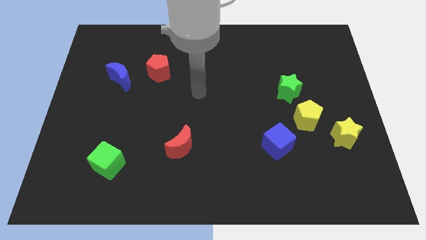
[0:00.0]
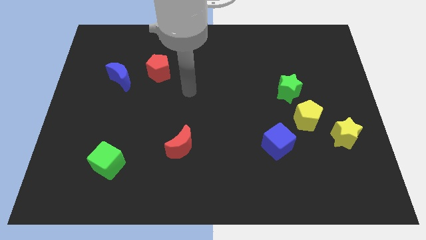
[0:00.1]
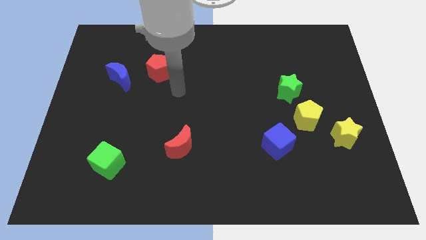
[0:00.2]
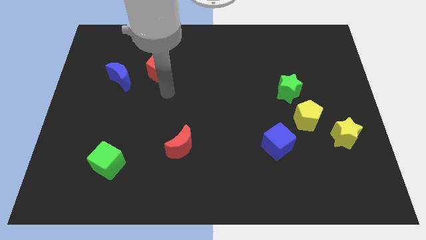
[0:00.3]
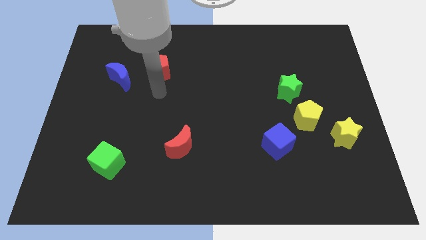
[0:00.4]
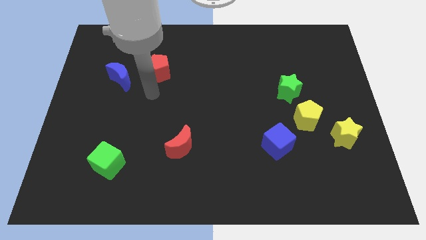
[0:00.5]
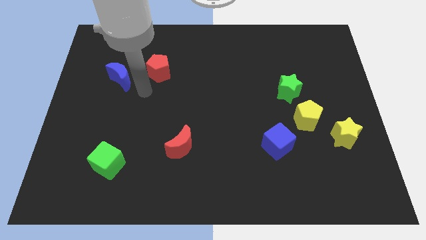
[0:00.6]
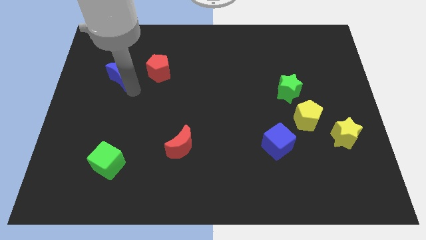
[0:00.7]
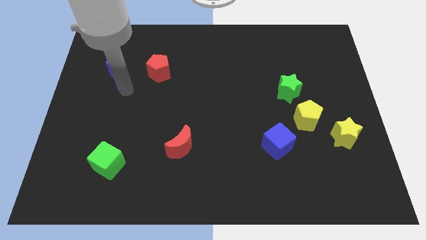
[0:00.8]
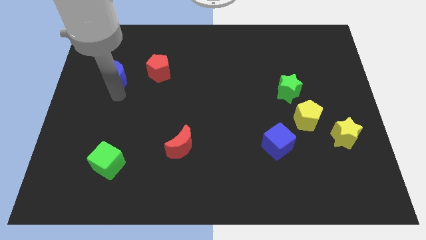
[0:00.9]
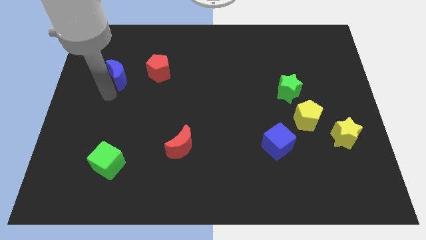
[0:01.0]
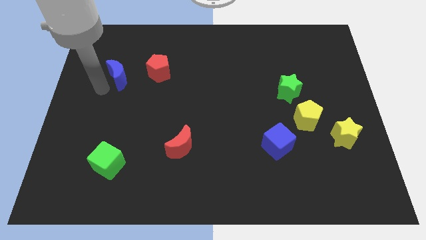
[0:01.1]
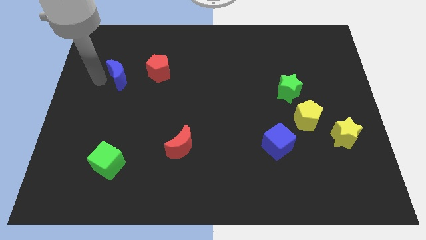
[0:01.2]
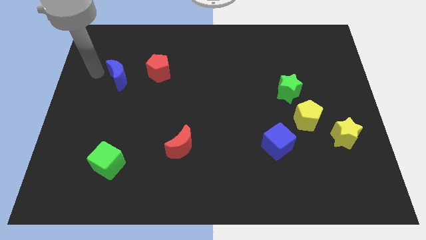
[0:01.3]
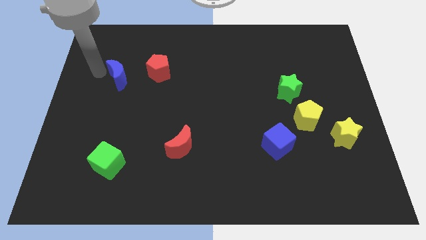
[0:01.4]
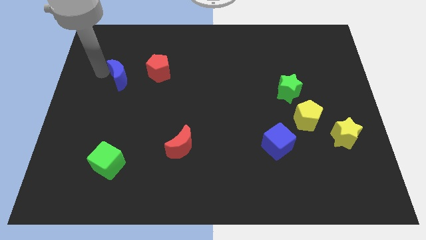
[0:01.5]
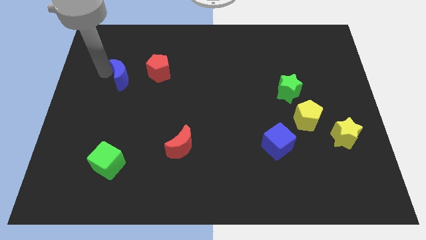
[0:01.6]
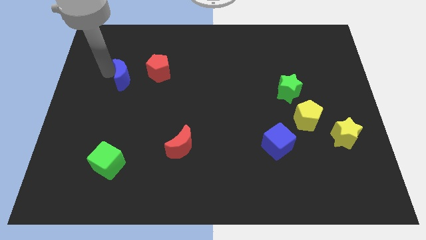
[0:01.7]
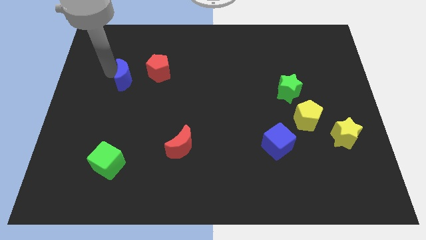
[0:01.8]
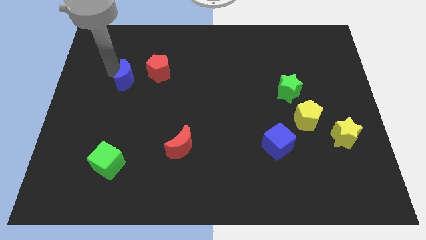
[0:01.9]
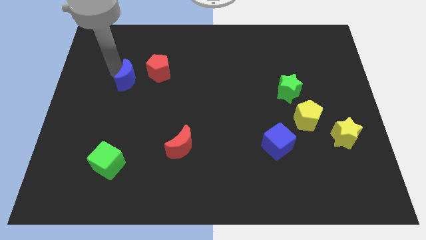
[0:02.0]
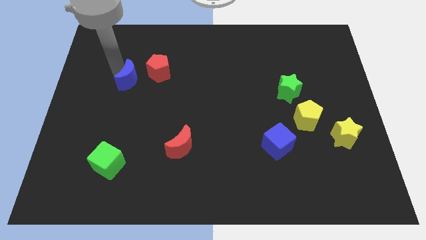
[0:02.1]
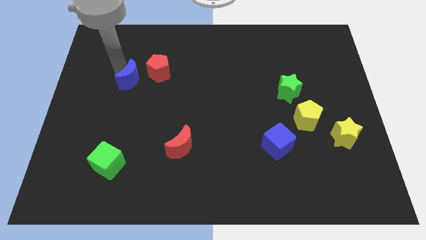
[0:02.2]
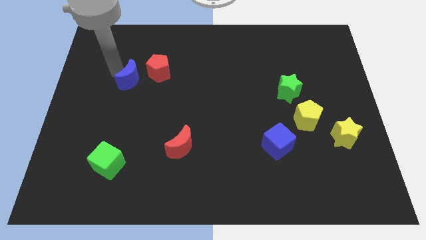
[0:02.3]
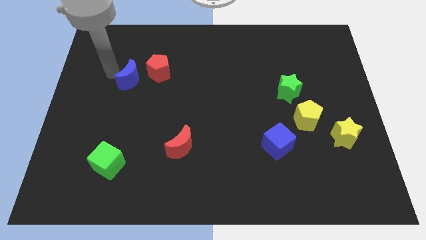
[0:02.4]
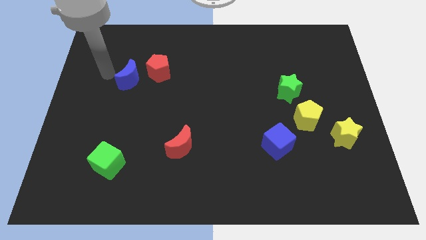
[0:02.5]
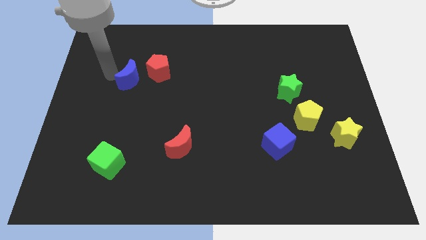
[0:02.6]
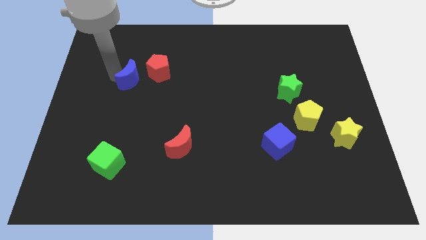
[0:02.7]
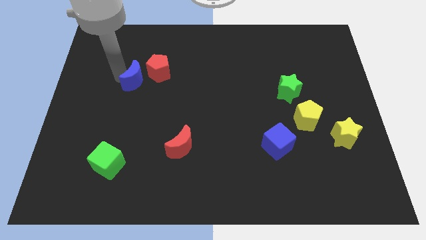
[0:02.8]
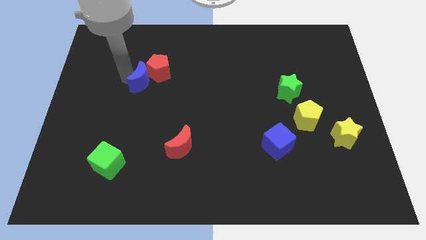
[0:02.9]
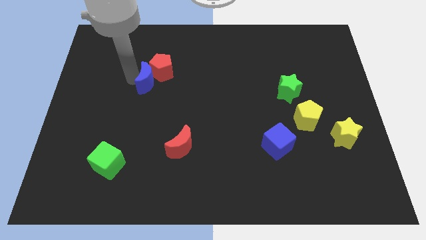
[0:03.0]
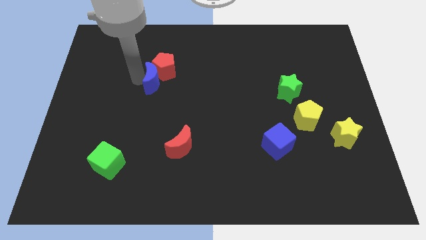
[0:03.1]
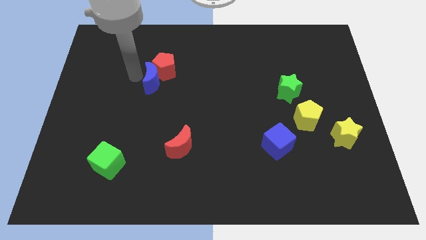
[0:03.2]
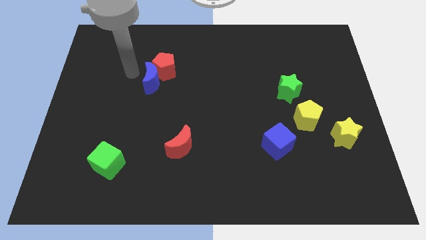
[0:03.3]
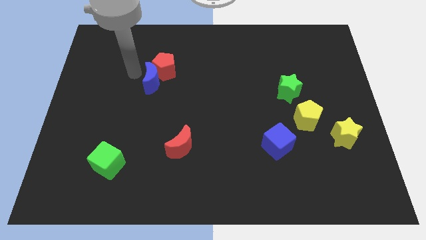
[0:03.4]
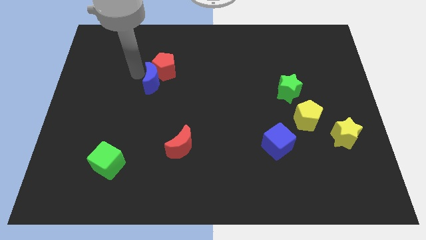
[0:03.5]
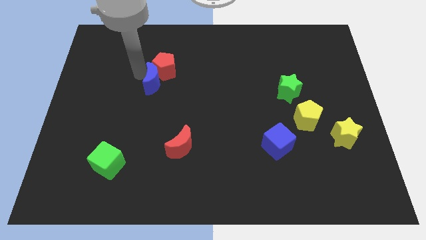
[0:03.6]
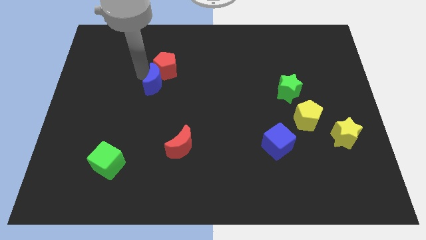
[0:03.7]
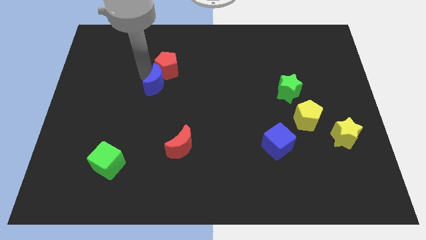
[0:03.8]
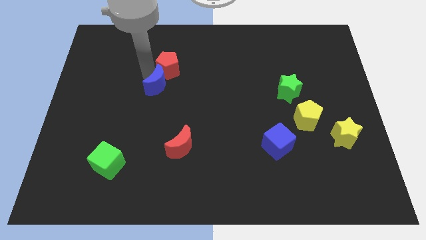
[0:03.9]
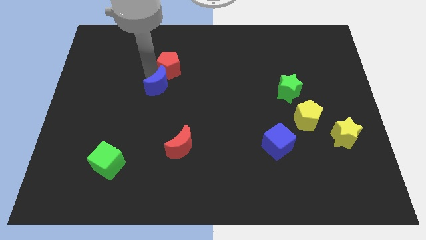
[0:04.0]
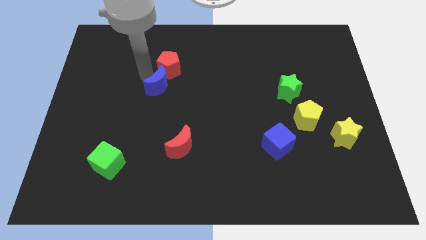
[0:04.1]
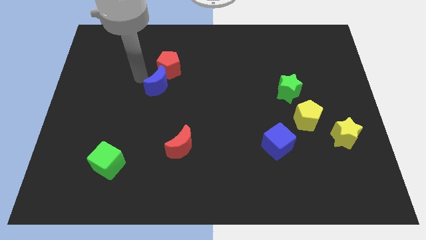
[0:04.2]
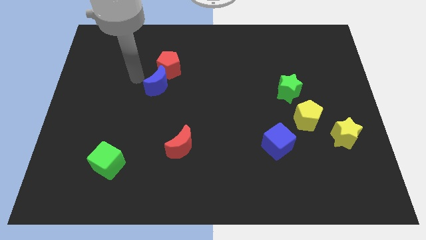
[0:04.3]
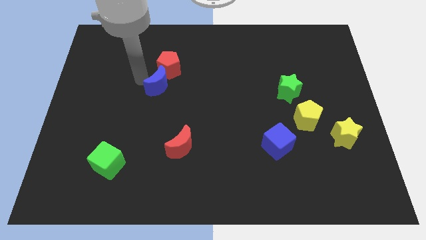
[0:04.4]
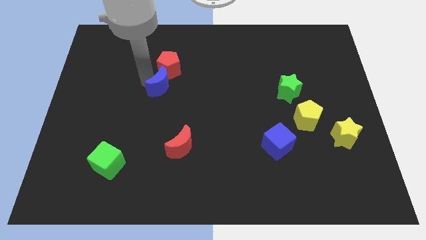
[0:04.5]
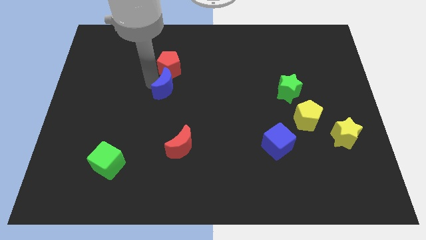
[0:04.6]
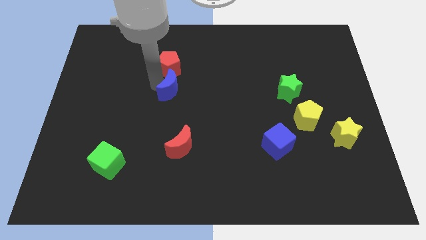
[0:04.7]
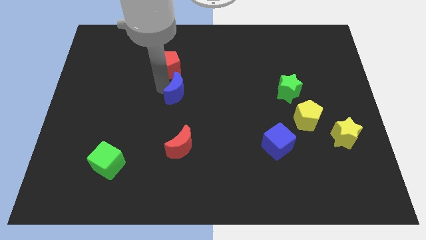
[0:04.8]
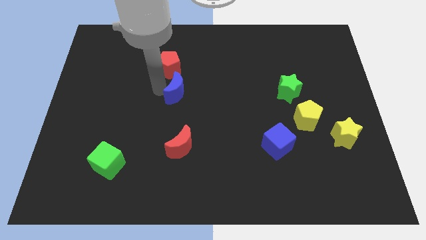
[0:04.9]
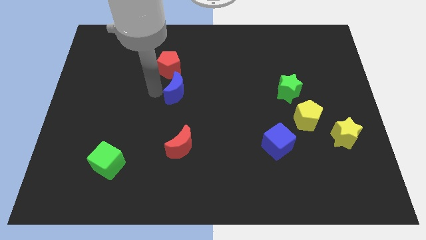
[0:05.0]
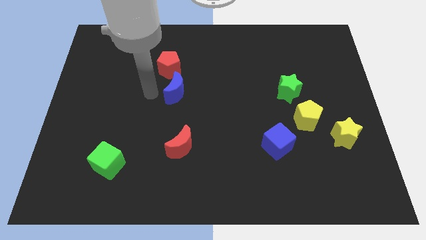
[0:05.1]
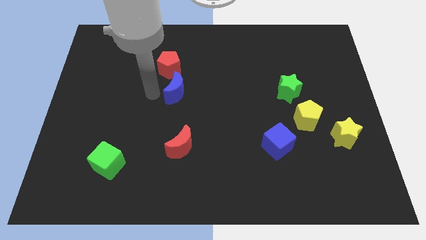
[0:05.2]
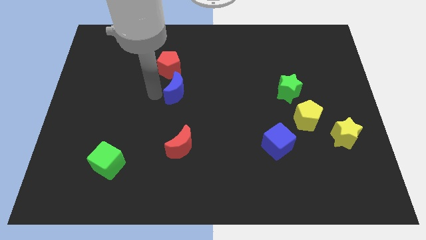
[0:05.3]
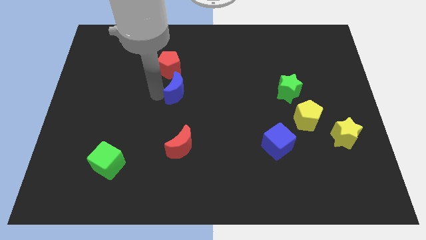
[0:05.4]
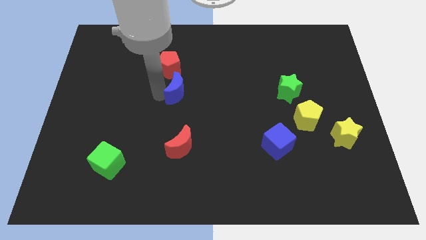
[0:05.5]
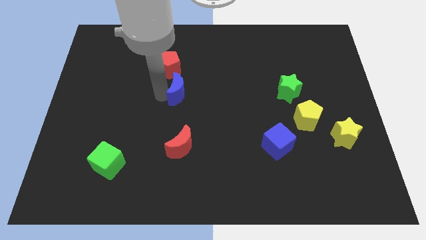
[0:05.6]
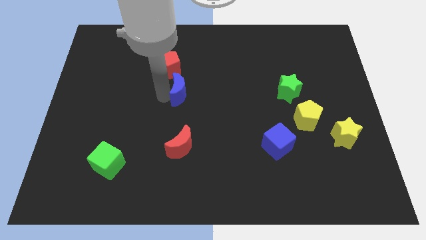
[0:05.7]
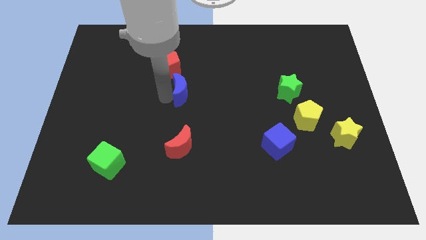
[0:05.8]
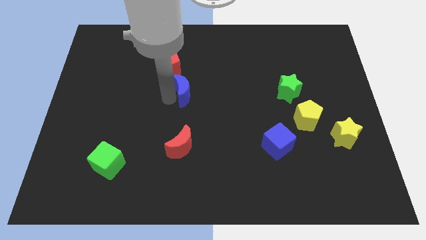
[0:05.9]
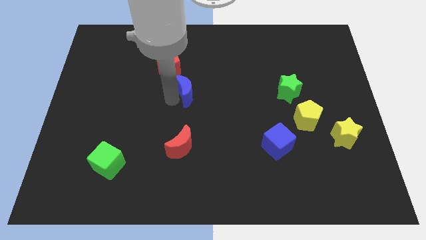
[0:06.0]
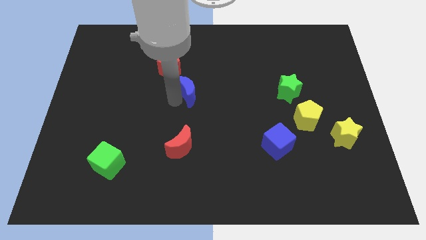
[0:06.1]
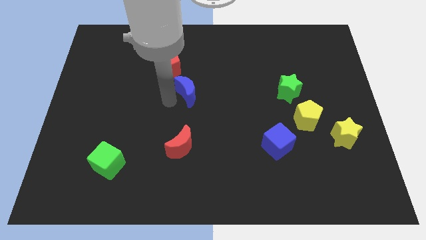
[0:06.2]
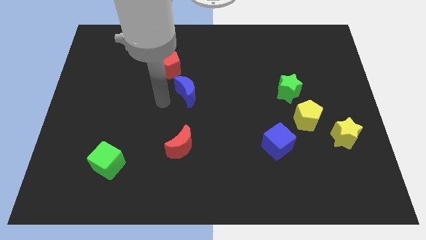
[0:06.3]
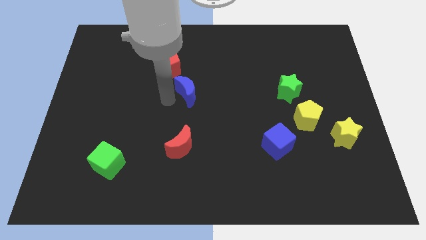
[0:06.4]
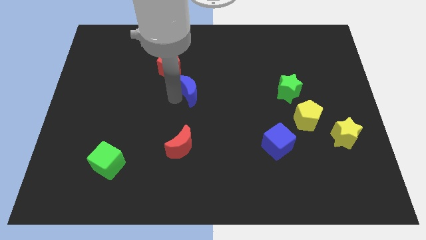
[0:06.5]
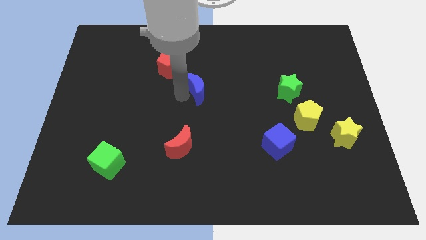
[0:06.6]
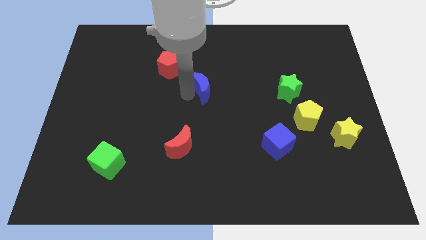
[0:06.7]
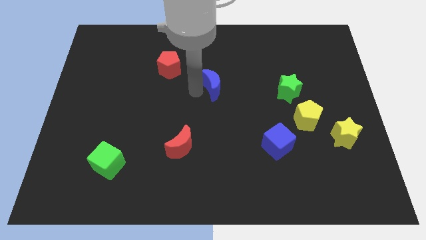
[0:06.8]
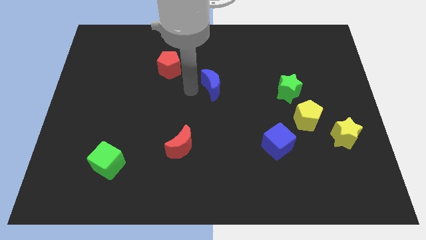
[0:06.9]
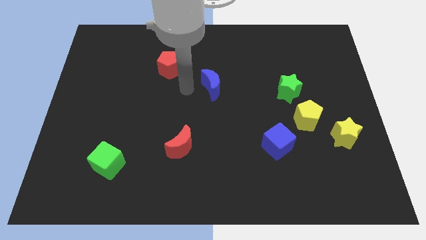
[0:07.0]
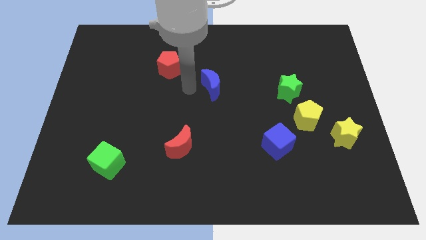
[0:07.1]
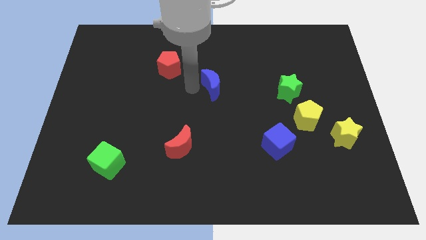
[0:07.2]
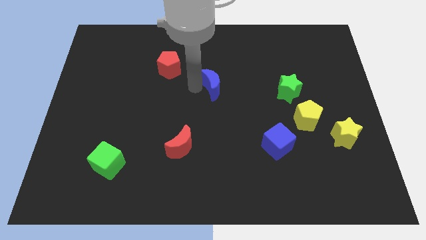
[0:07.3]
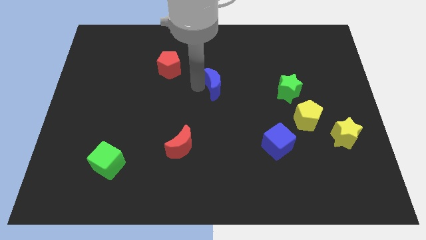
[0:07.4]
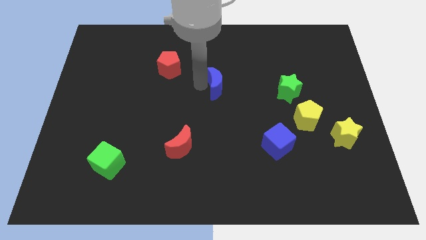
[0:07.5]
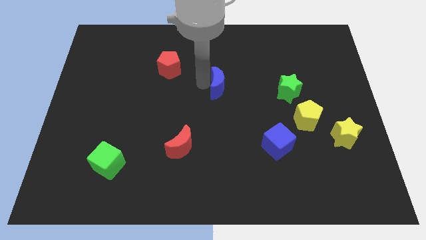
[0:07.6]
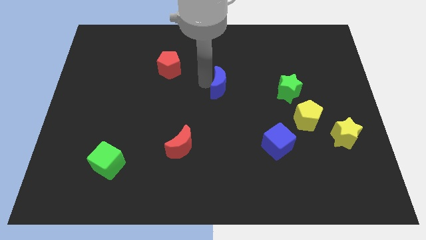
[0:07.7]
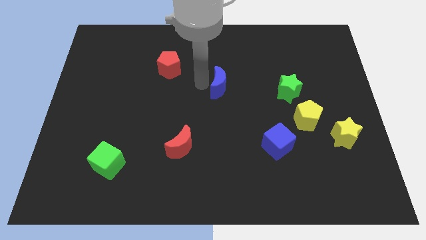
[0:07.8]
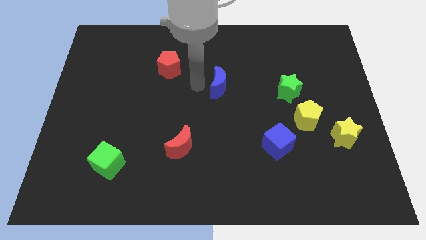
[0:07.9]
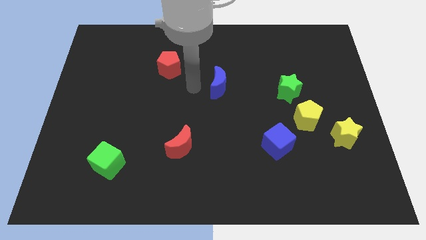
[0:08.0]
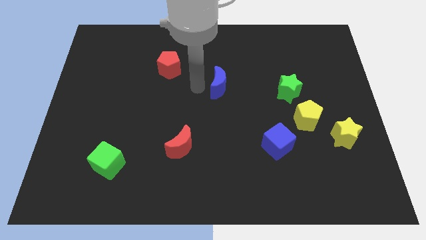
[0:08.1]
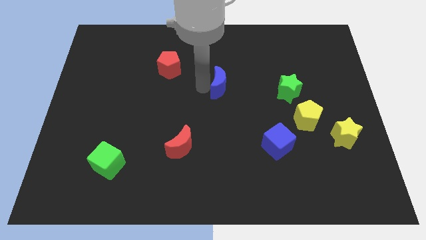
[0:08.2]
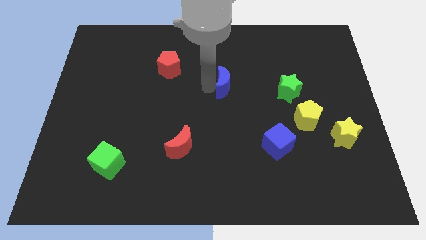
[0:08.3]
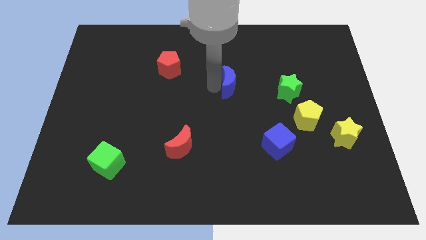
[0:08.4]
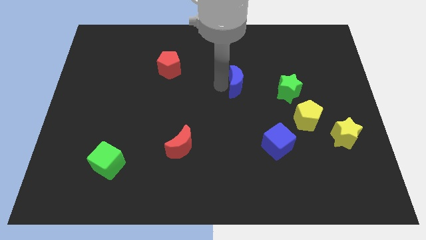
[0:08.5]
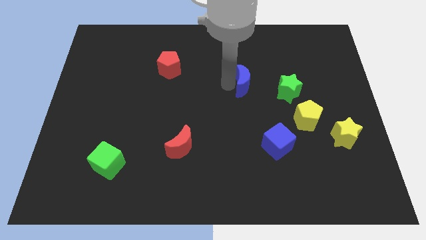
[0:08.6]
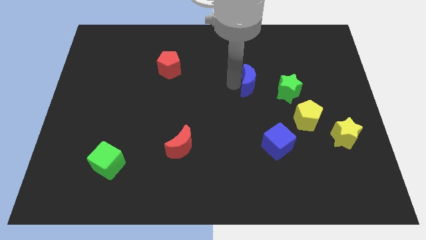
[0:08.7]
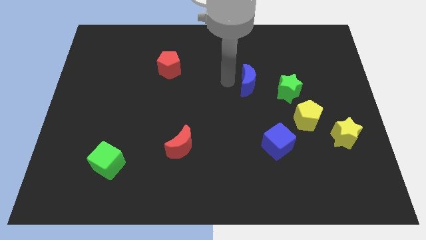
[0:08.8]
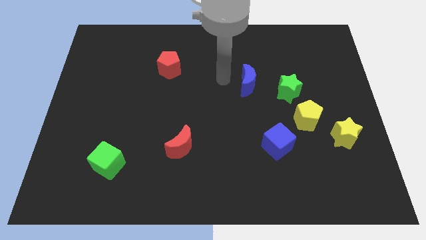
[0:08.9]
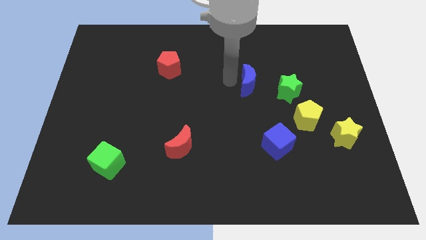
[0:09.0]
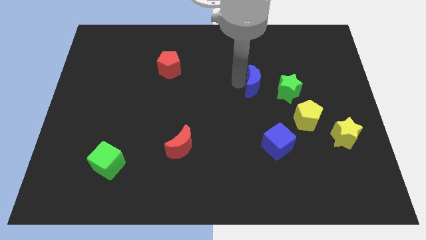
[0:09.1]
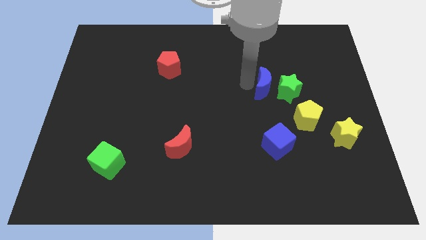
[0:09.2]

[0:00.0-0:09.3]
push the blue moon towards the green star
